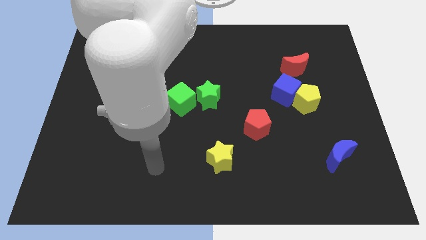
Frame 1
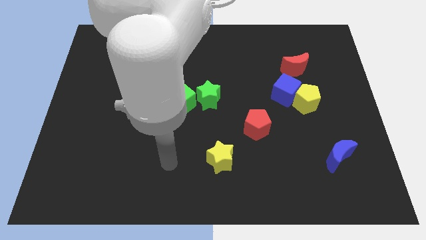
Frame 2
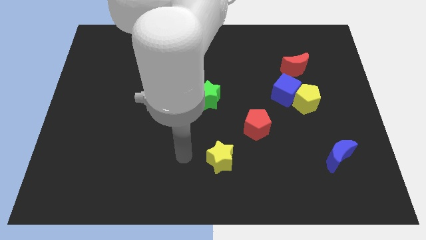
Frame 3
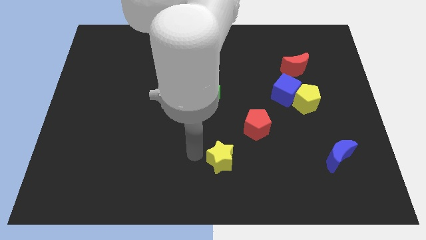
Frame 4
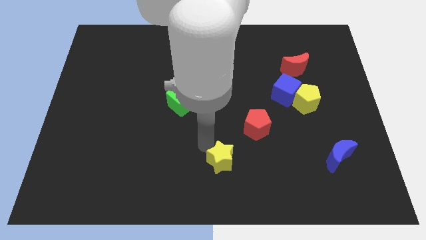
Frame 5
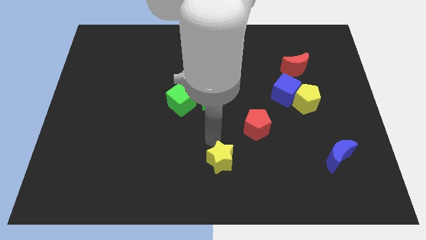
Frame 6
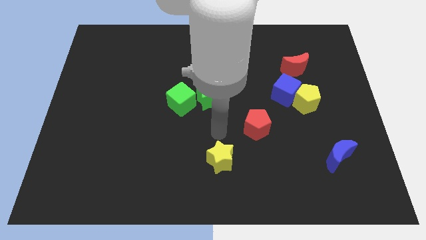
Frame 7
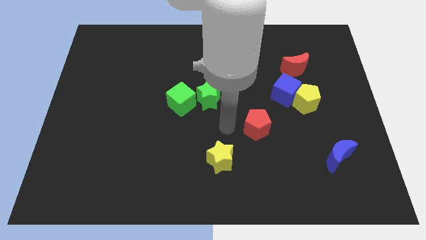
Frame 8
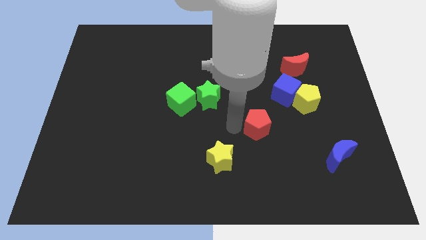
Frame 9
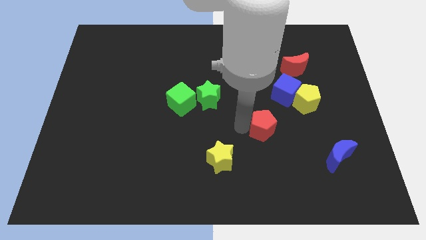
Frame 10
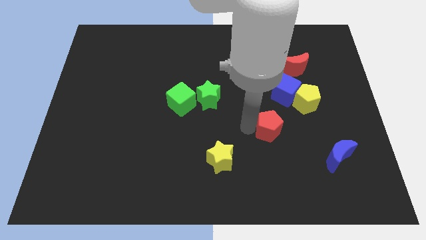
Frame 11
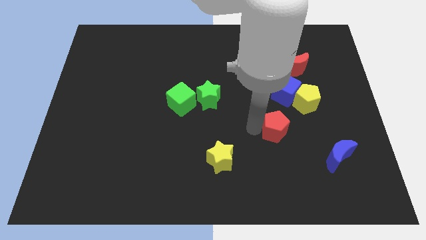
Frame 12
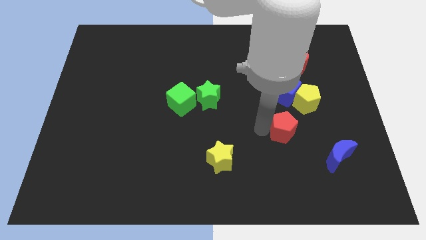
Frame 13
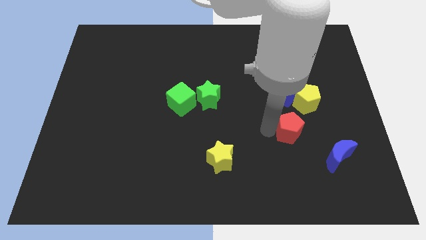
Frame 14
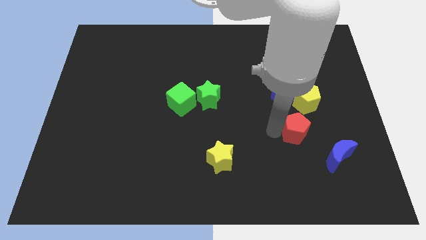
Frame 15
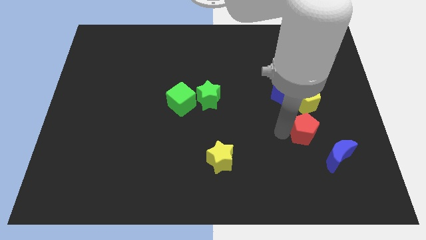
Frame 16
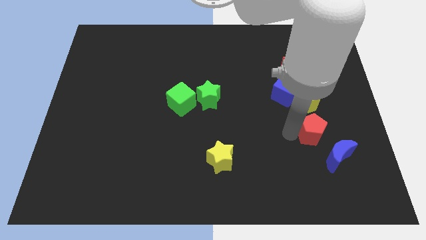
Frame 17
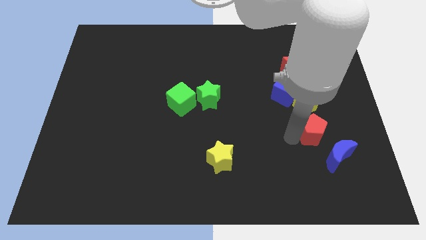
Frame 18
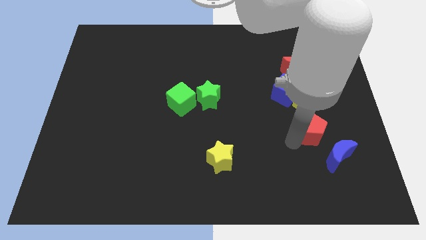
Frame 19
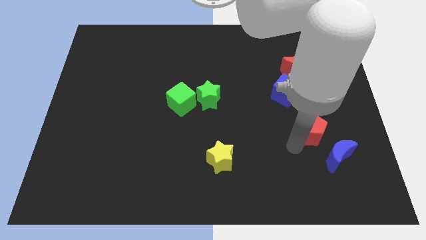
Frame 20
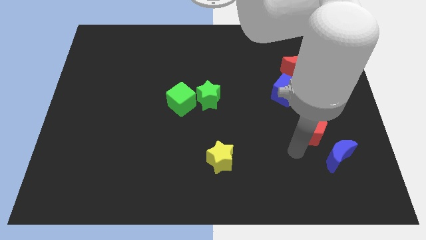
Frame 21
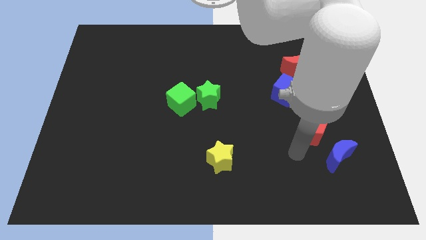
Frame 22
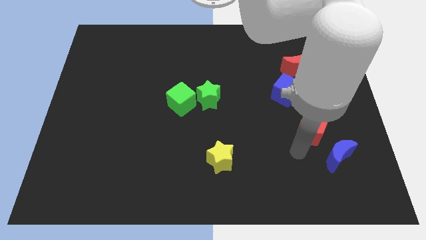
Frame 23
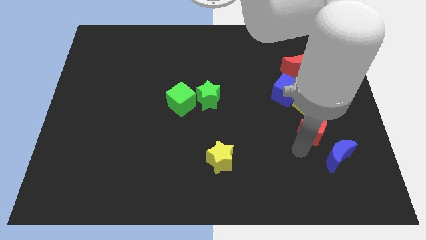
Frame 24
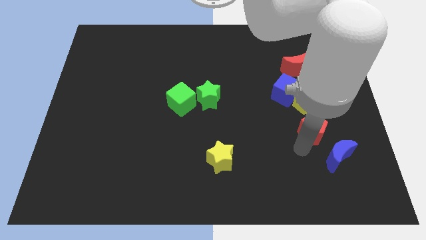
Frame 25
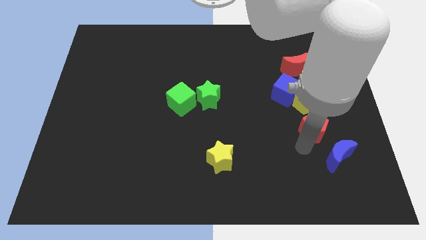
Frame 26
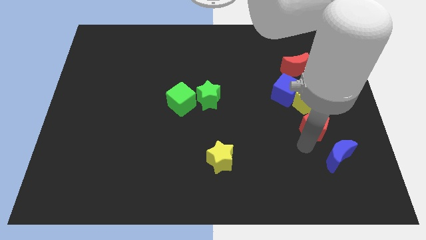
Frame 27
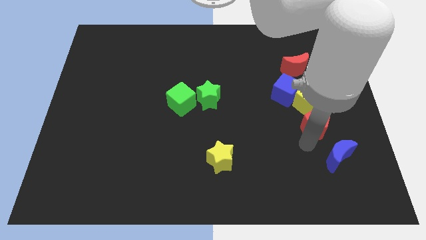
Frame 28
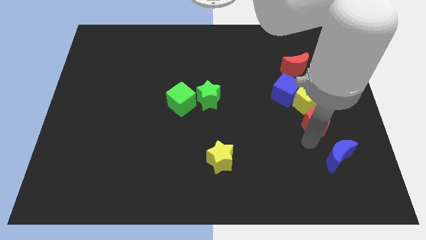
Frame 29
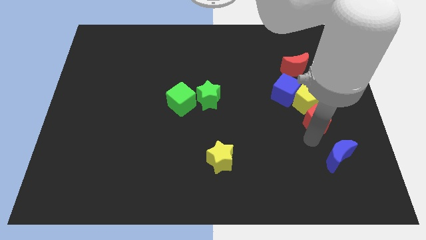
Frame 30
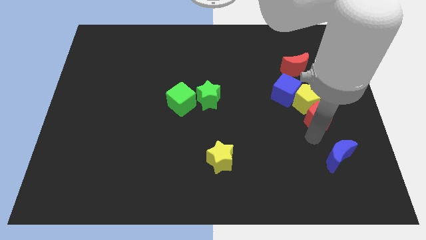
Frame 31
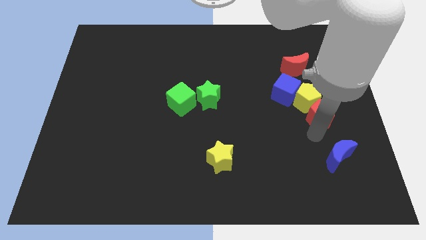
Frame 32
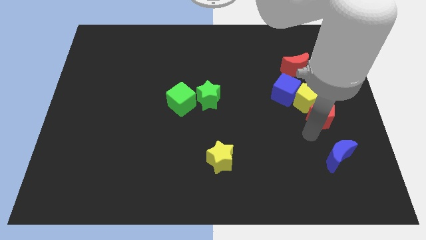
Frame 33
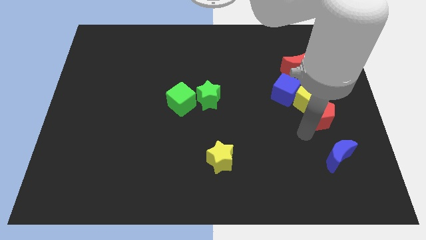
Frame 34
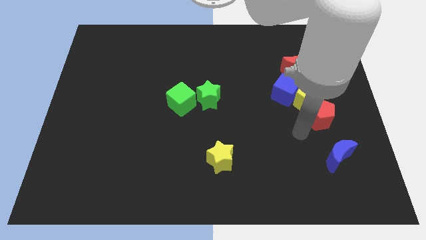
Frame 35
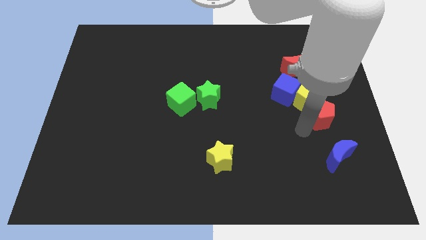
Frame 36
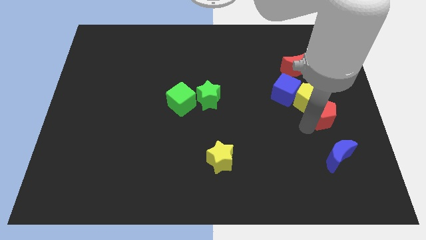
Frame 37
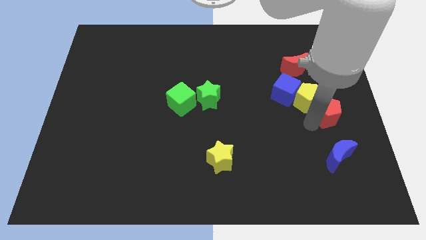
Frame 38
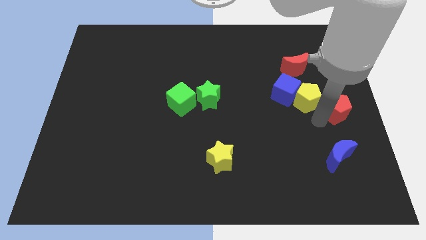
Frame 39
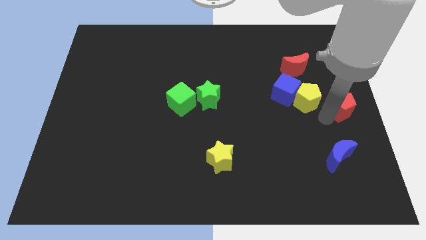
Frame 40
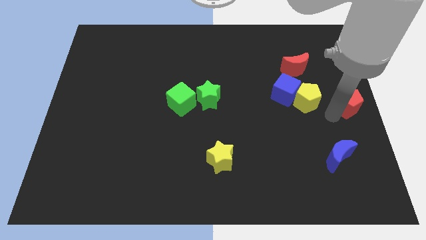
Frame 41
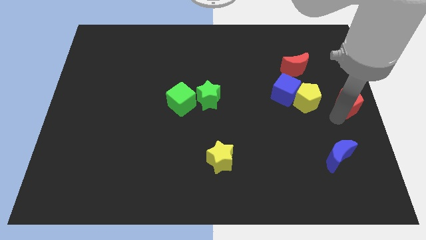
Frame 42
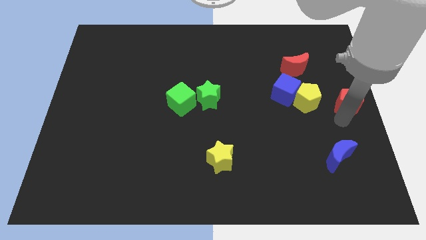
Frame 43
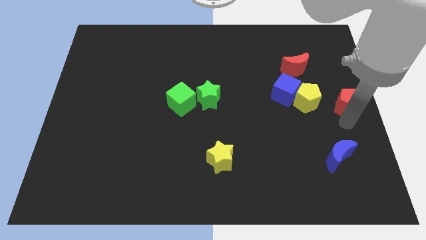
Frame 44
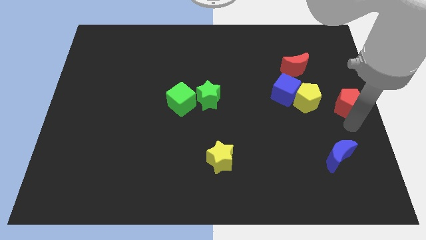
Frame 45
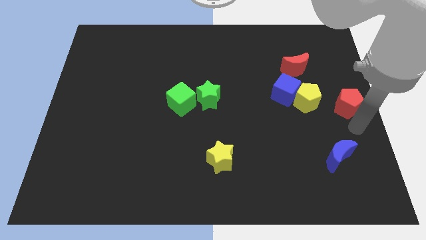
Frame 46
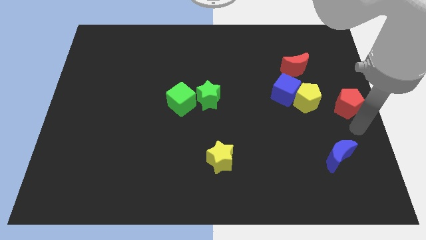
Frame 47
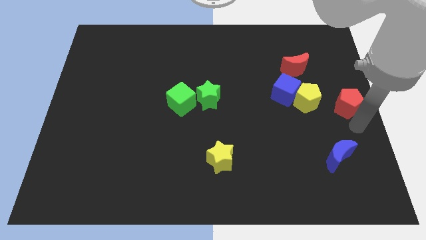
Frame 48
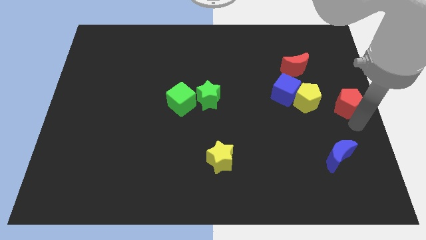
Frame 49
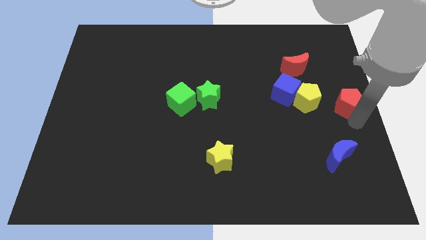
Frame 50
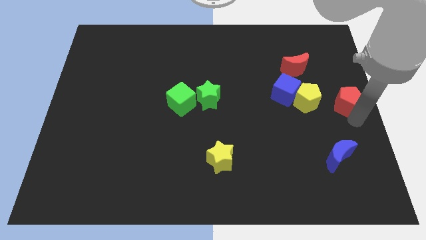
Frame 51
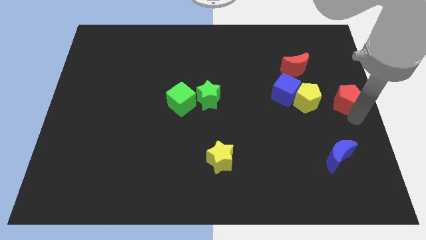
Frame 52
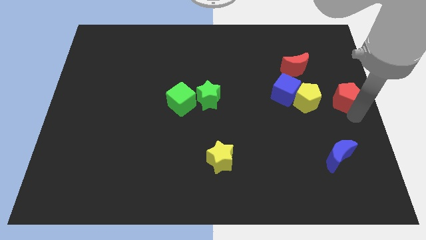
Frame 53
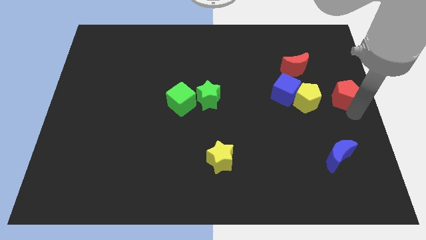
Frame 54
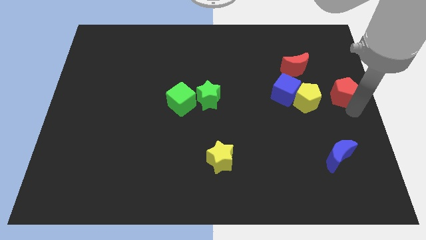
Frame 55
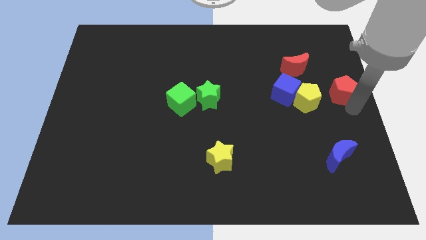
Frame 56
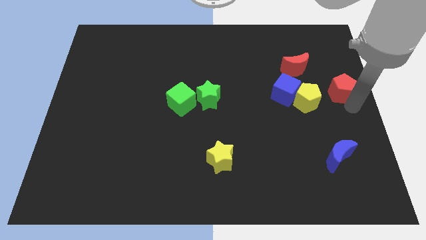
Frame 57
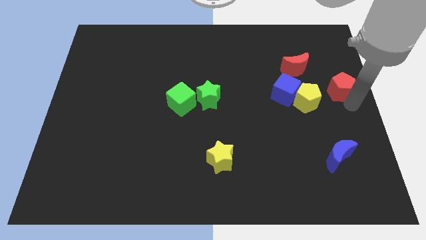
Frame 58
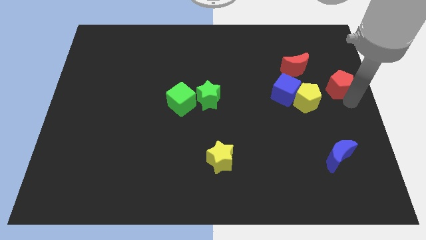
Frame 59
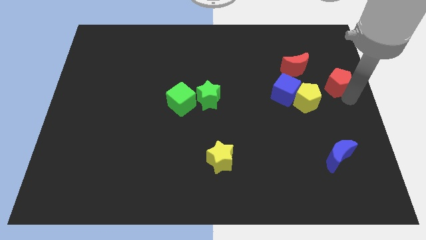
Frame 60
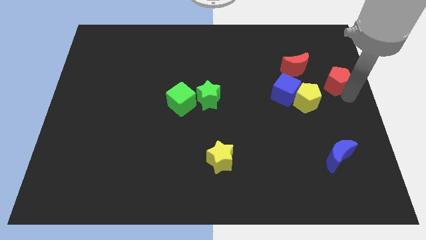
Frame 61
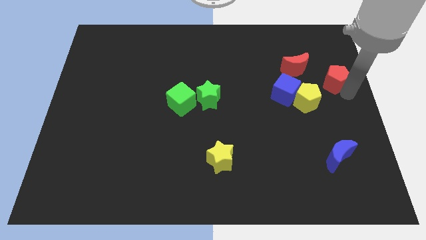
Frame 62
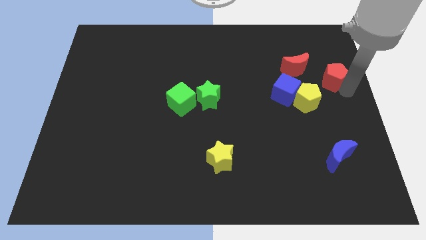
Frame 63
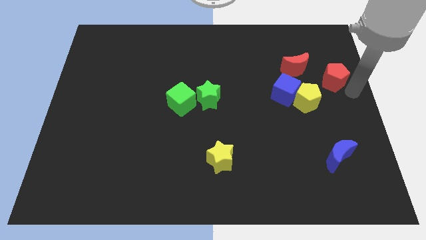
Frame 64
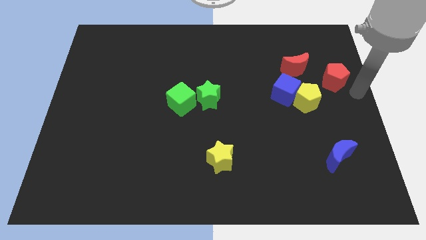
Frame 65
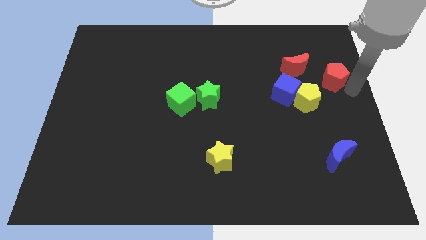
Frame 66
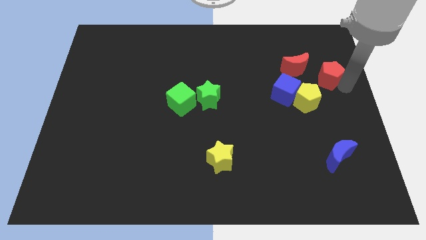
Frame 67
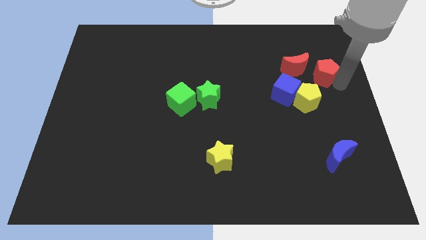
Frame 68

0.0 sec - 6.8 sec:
put the red pentagon to the top right side of the blue cube
